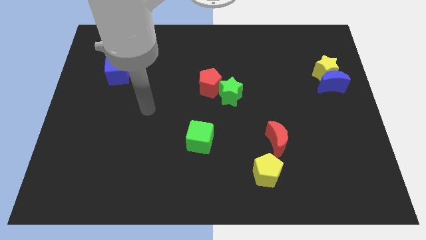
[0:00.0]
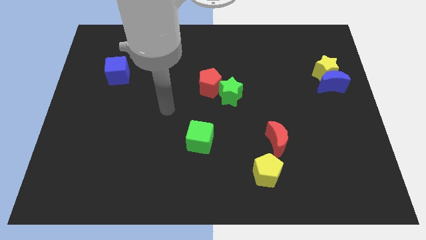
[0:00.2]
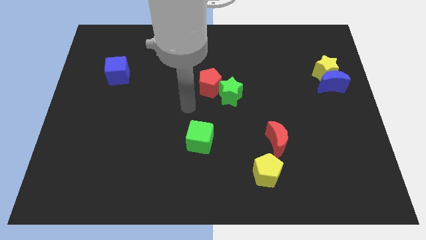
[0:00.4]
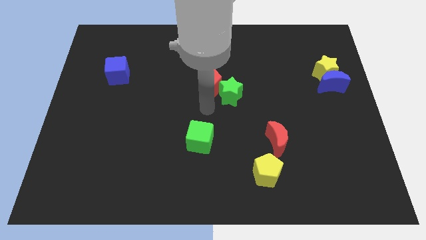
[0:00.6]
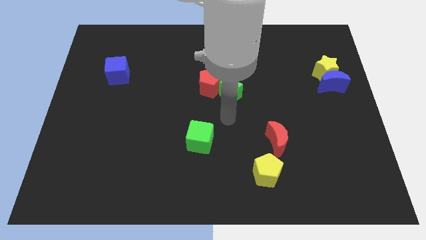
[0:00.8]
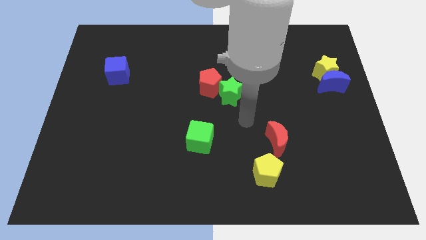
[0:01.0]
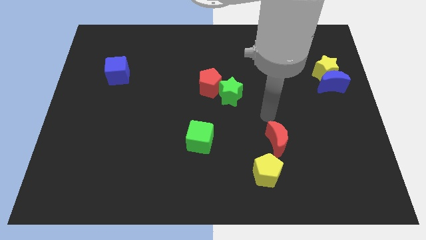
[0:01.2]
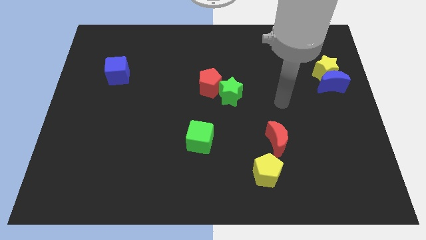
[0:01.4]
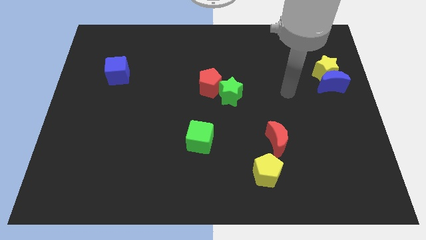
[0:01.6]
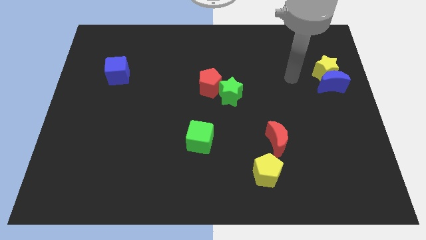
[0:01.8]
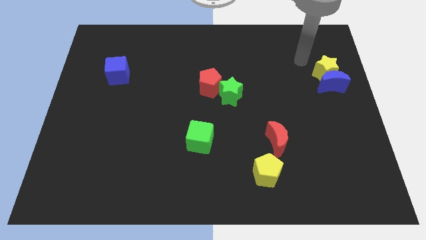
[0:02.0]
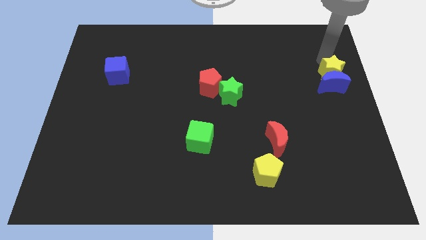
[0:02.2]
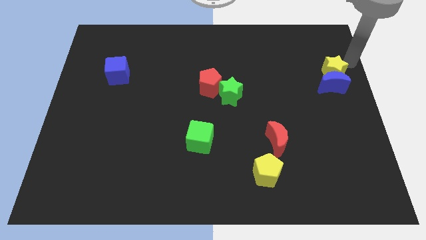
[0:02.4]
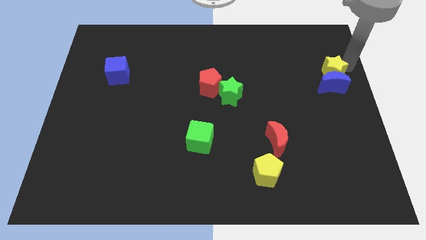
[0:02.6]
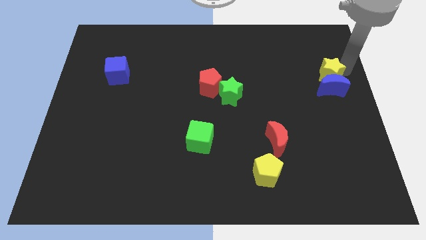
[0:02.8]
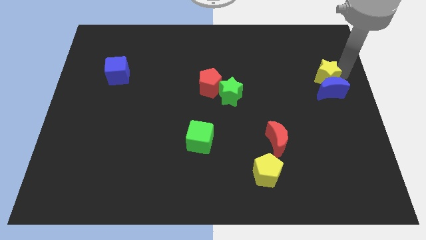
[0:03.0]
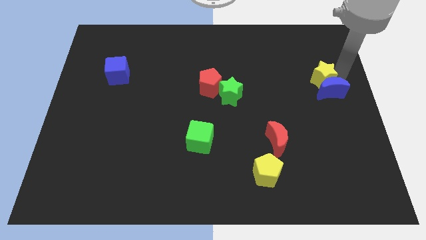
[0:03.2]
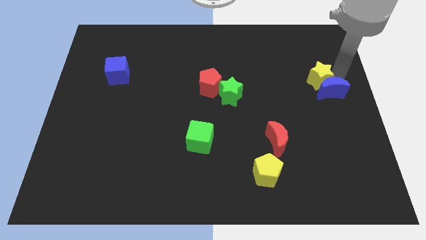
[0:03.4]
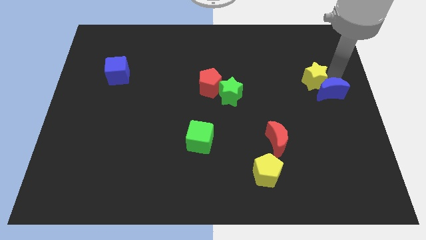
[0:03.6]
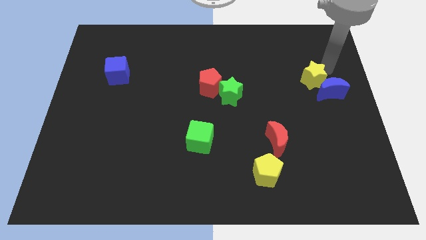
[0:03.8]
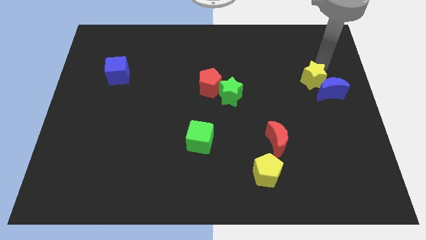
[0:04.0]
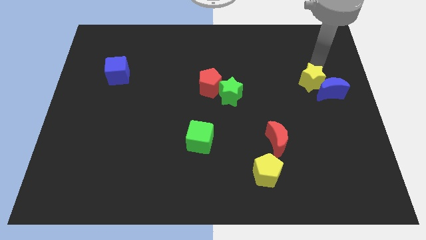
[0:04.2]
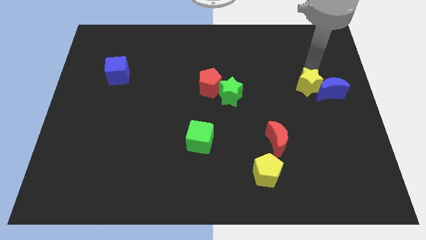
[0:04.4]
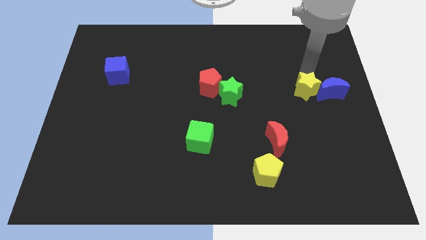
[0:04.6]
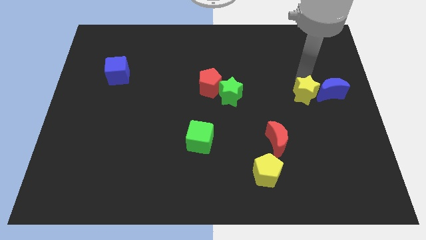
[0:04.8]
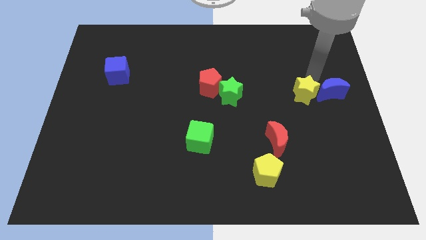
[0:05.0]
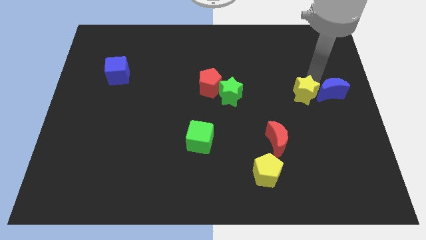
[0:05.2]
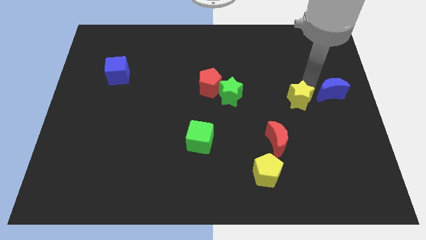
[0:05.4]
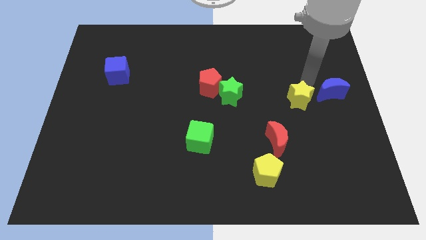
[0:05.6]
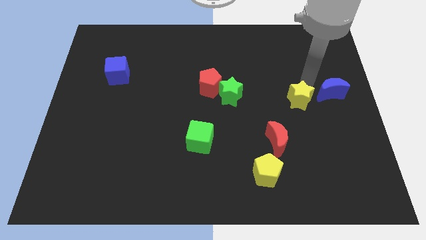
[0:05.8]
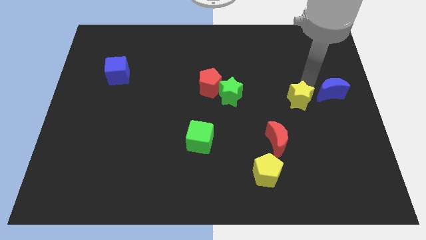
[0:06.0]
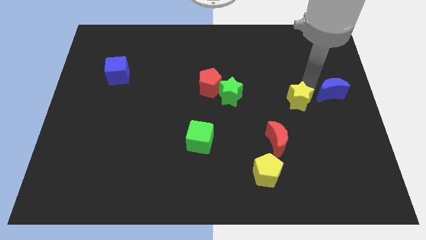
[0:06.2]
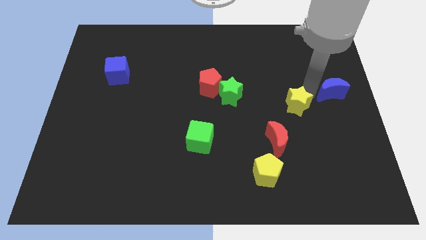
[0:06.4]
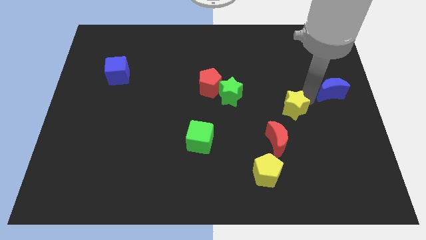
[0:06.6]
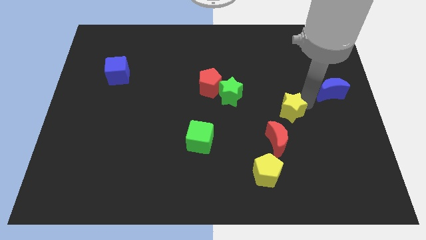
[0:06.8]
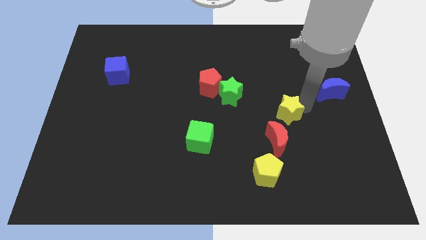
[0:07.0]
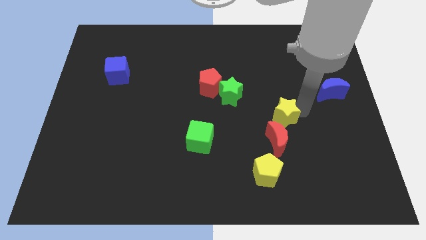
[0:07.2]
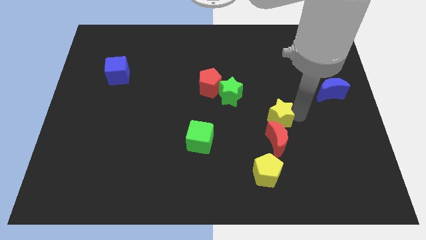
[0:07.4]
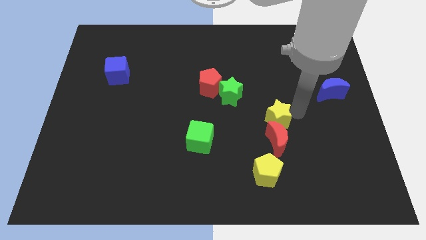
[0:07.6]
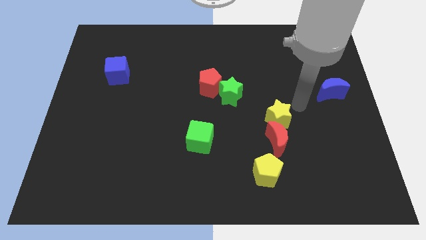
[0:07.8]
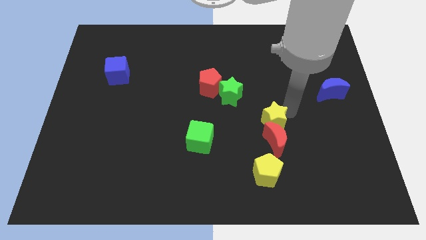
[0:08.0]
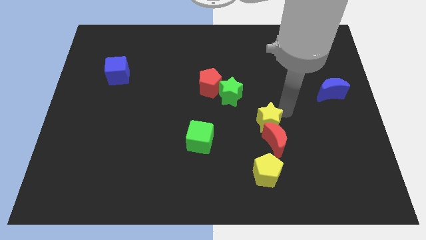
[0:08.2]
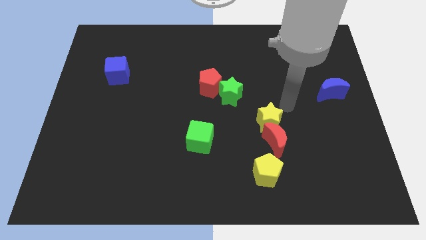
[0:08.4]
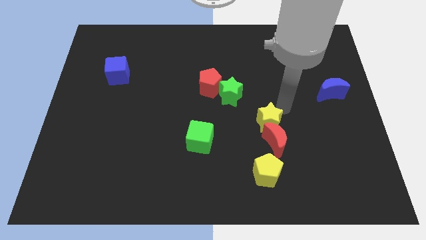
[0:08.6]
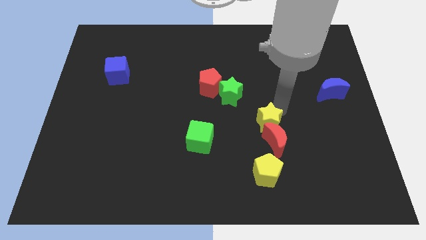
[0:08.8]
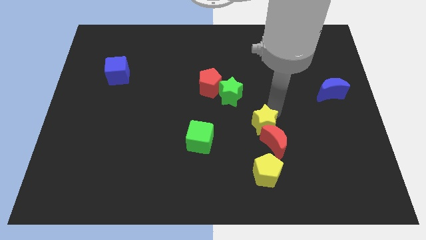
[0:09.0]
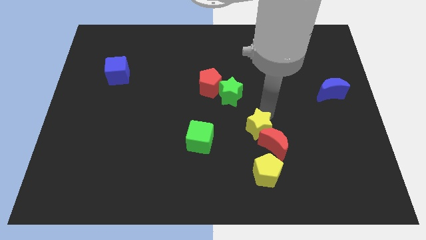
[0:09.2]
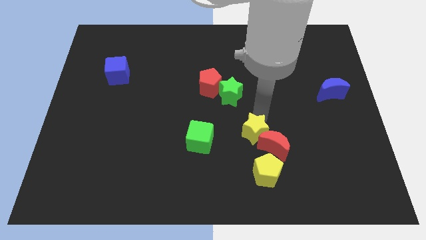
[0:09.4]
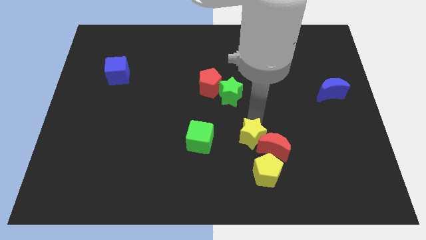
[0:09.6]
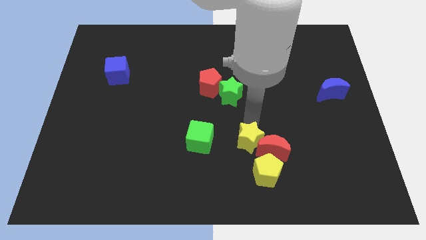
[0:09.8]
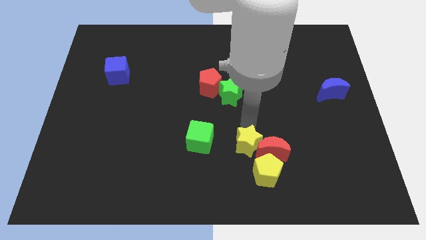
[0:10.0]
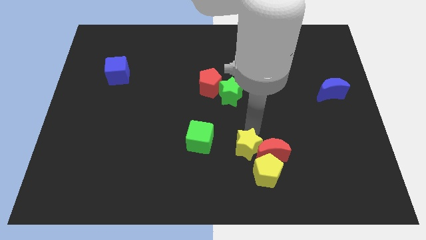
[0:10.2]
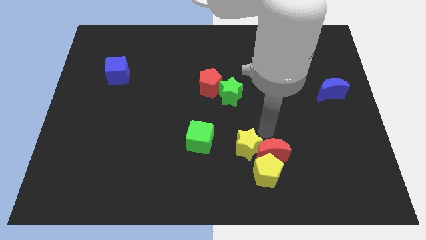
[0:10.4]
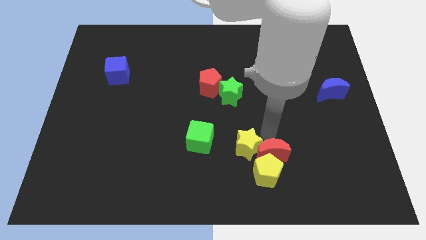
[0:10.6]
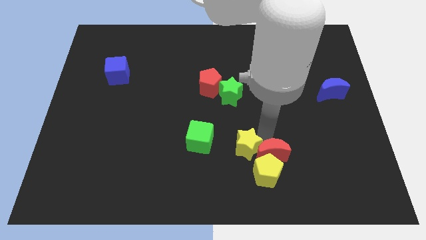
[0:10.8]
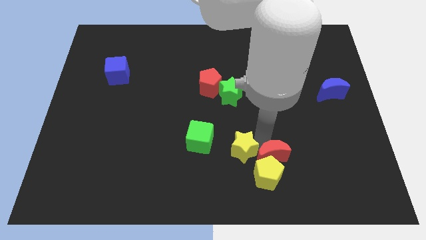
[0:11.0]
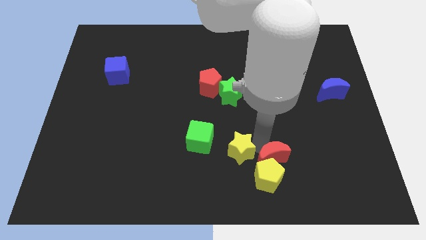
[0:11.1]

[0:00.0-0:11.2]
slide the yellow star to the bottom right of the green cube
